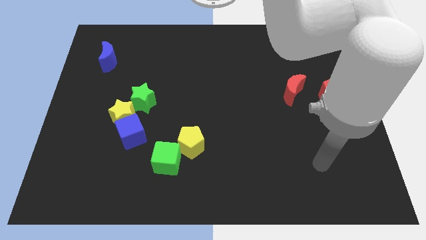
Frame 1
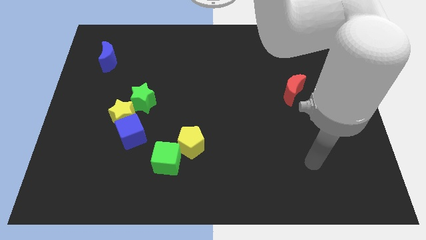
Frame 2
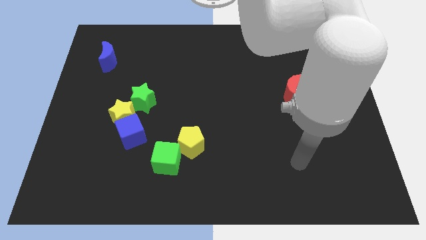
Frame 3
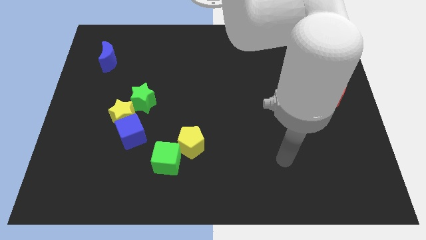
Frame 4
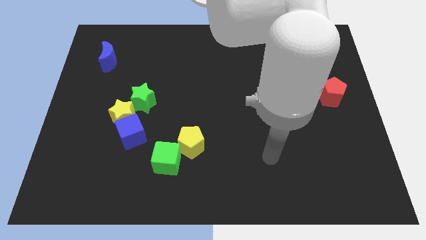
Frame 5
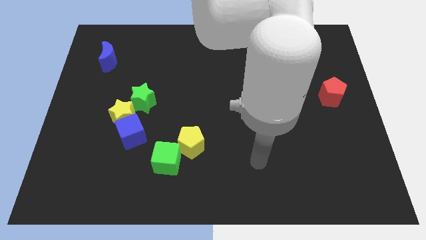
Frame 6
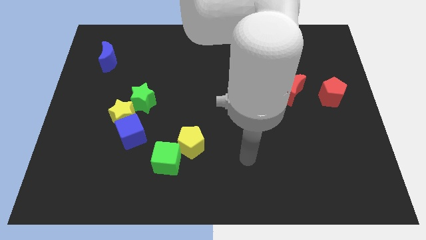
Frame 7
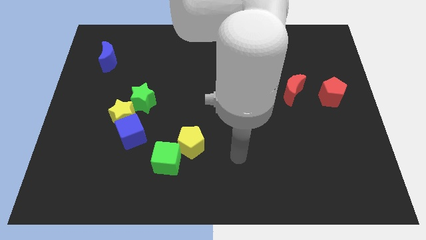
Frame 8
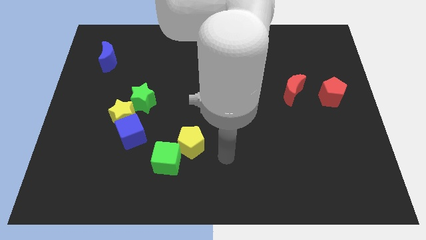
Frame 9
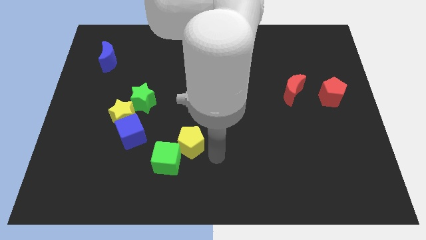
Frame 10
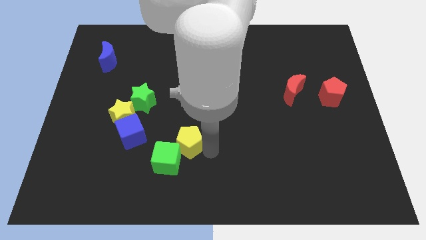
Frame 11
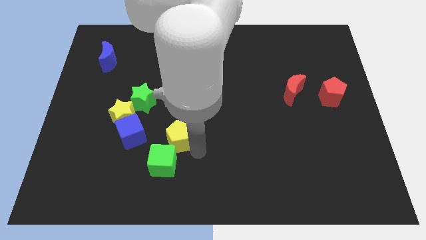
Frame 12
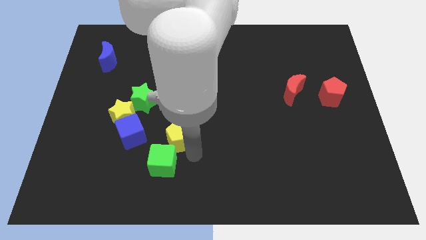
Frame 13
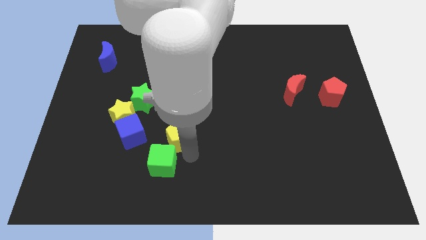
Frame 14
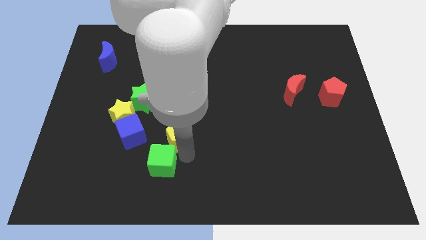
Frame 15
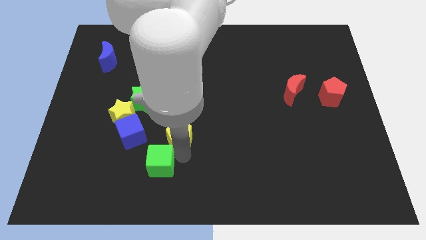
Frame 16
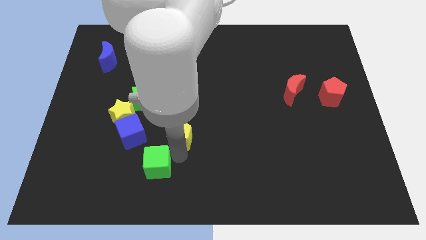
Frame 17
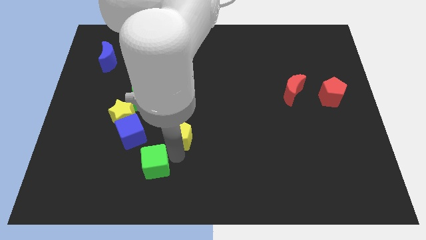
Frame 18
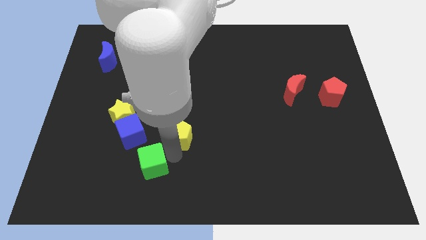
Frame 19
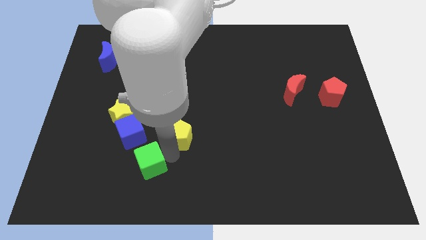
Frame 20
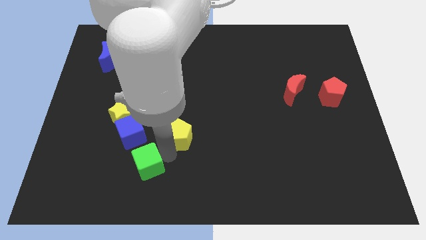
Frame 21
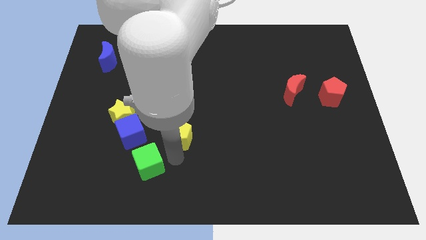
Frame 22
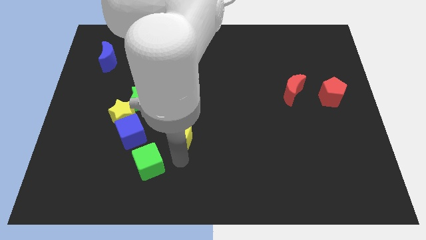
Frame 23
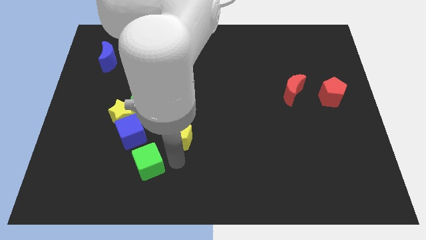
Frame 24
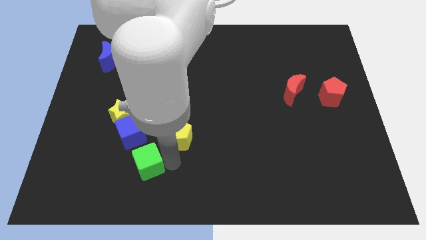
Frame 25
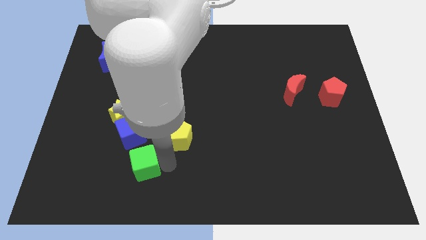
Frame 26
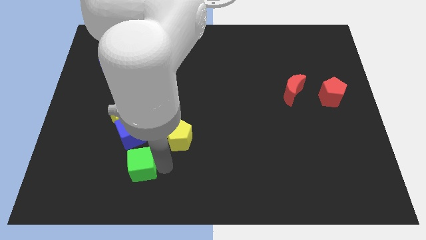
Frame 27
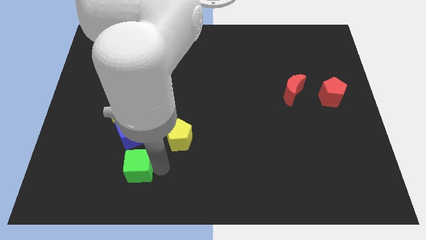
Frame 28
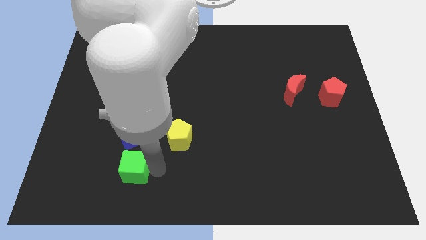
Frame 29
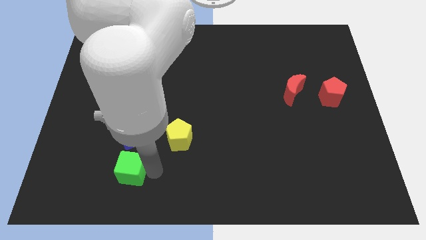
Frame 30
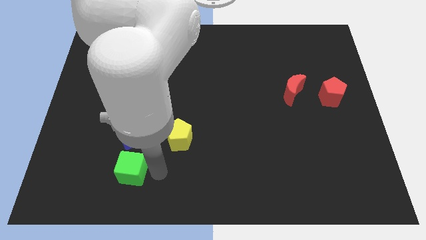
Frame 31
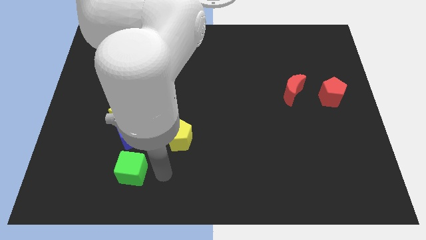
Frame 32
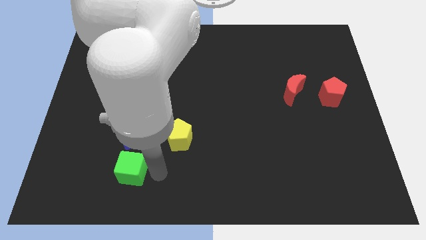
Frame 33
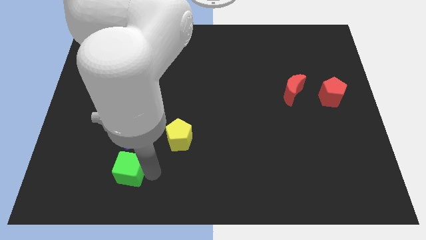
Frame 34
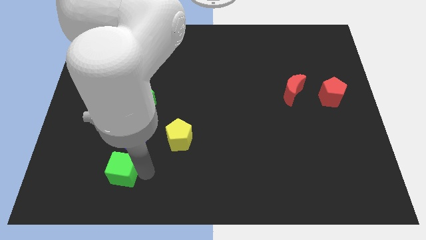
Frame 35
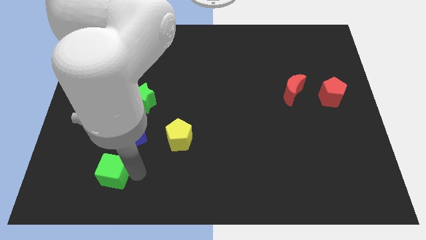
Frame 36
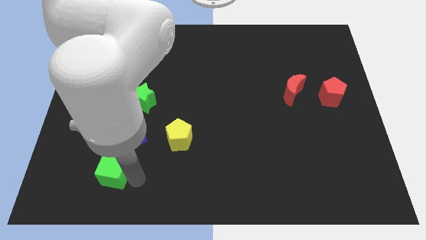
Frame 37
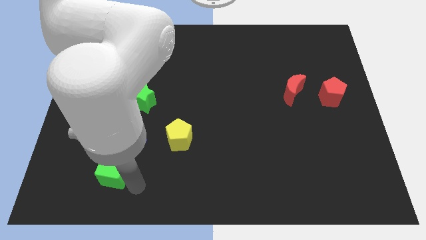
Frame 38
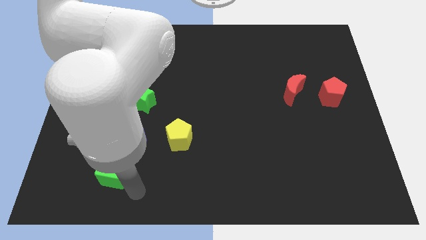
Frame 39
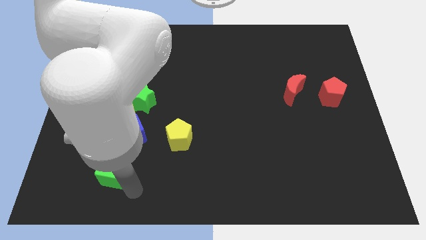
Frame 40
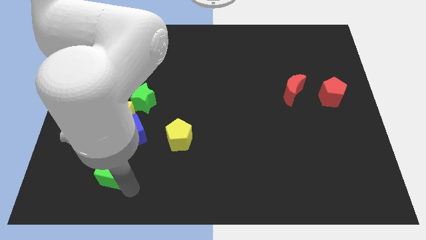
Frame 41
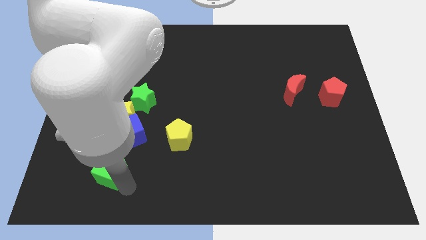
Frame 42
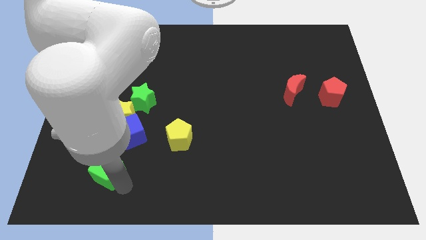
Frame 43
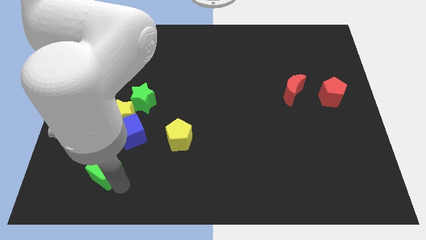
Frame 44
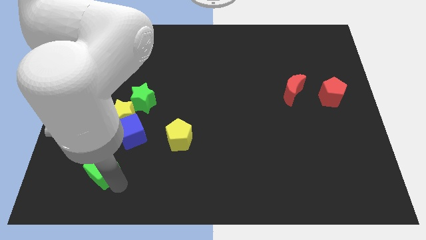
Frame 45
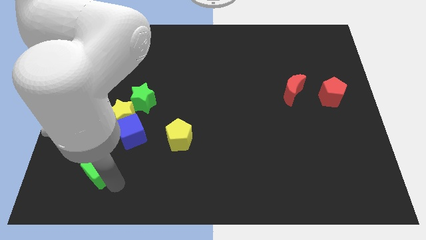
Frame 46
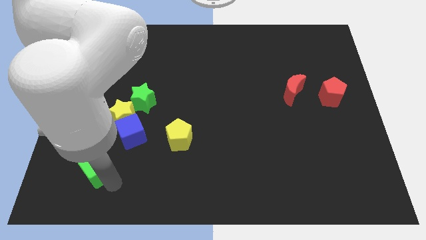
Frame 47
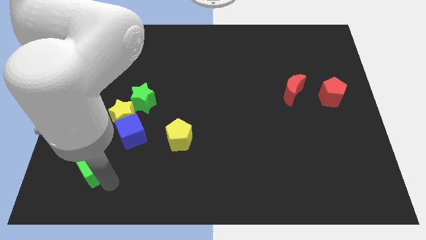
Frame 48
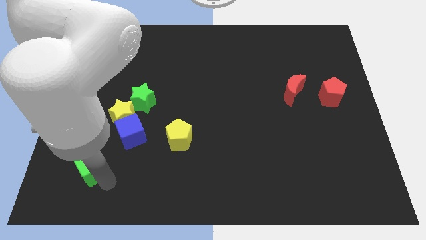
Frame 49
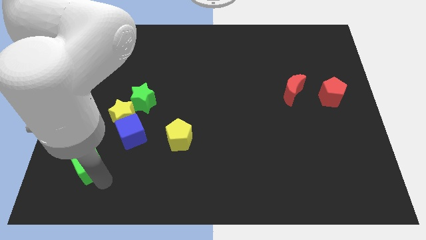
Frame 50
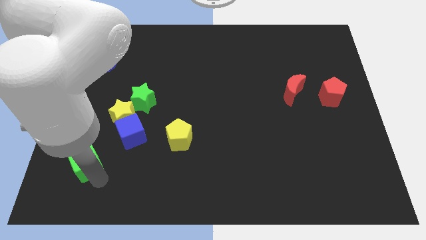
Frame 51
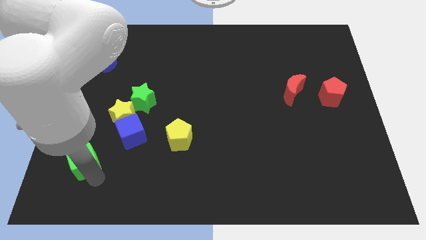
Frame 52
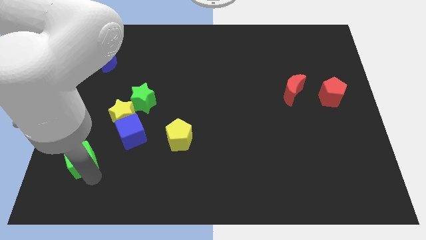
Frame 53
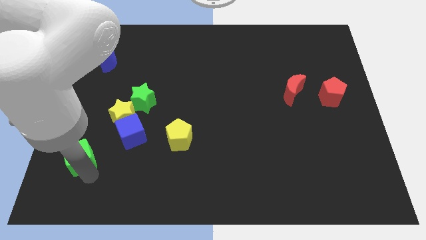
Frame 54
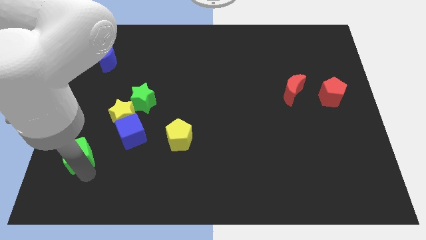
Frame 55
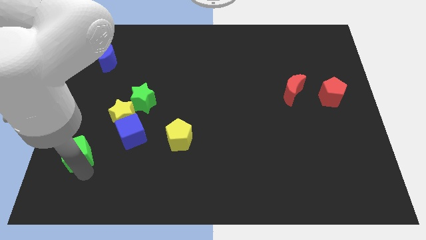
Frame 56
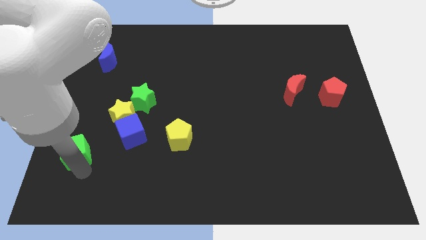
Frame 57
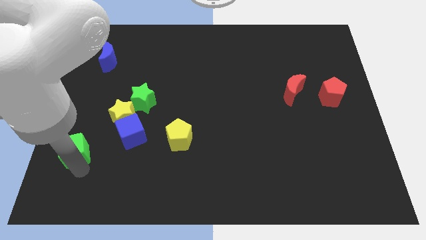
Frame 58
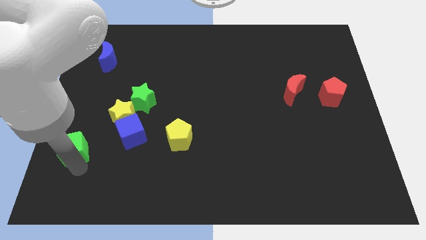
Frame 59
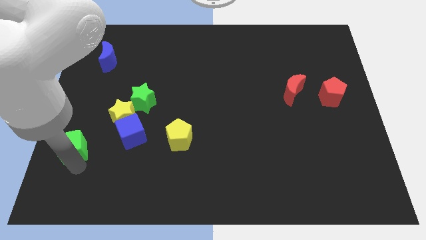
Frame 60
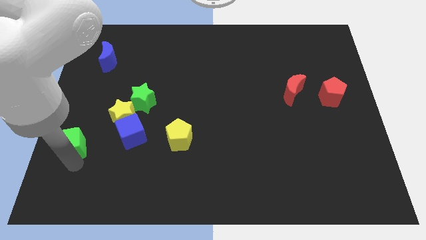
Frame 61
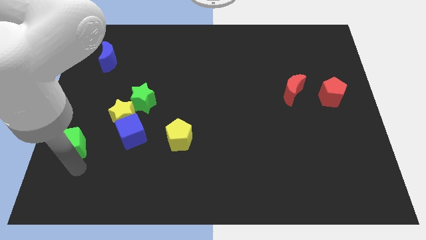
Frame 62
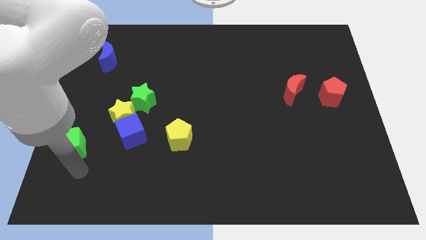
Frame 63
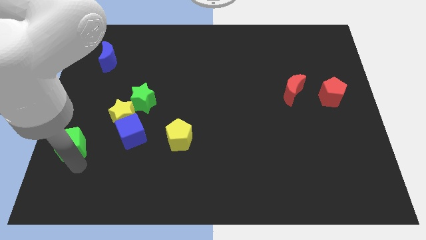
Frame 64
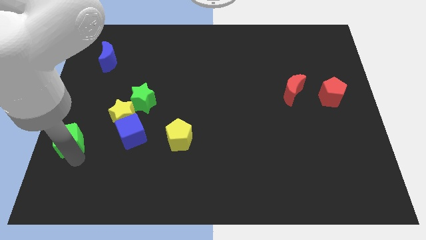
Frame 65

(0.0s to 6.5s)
slide the green cube to the left side

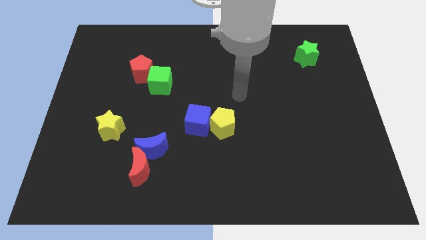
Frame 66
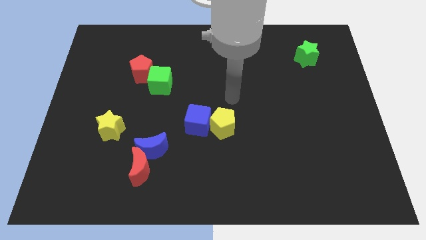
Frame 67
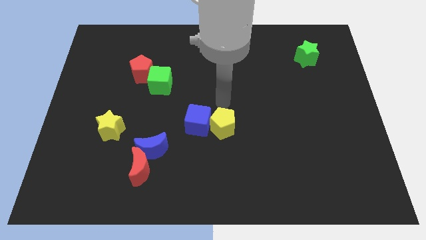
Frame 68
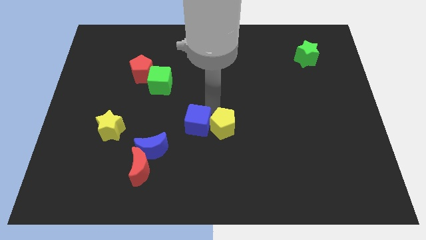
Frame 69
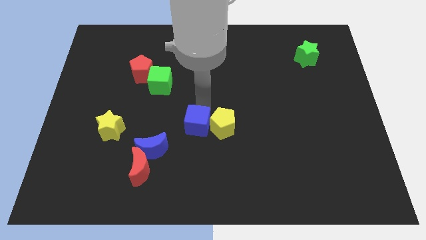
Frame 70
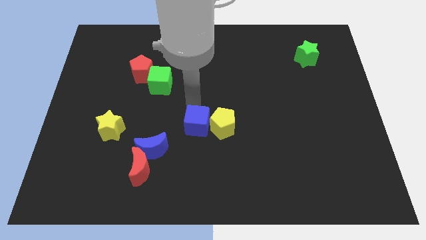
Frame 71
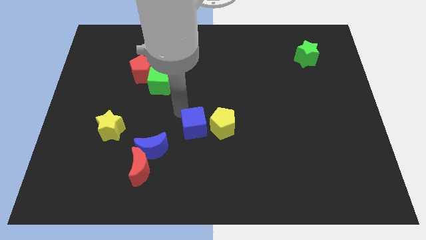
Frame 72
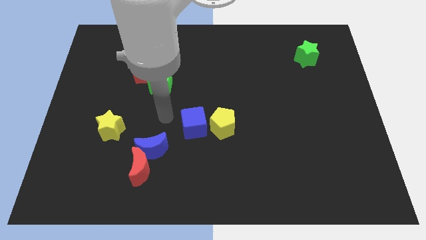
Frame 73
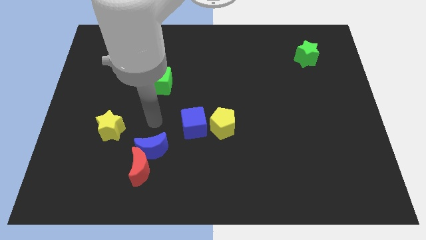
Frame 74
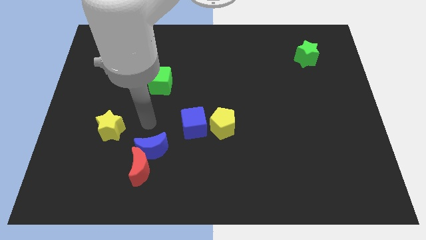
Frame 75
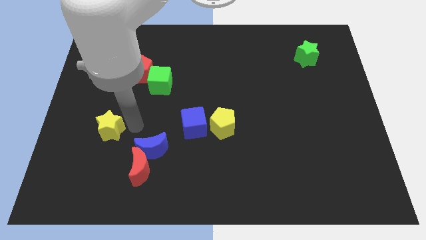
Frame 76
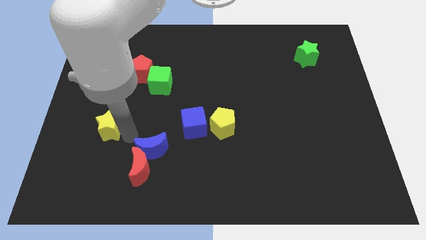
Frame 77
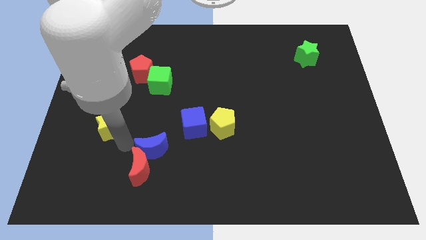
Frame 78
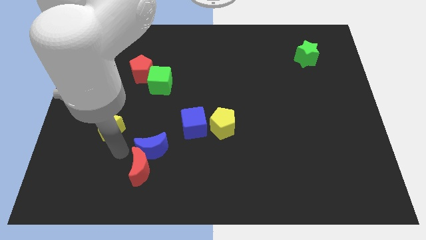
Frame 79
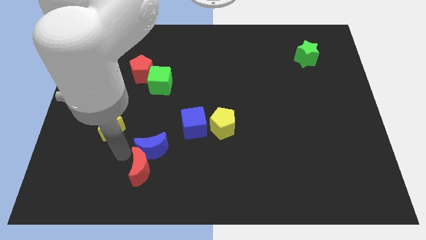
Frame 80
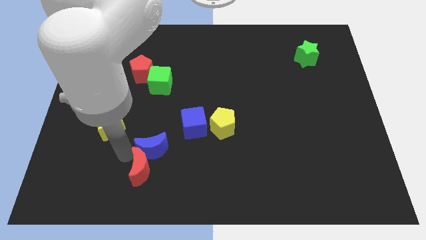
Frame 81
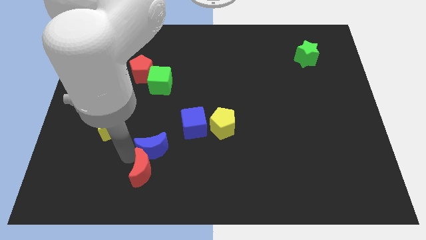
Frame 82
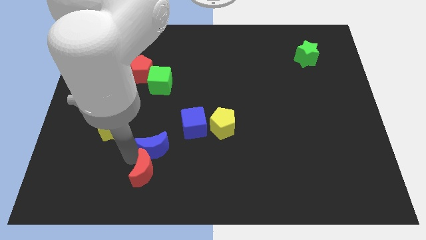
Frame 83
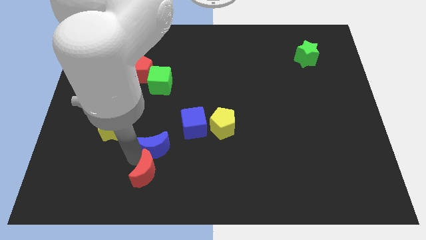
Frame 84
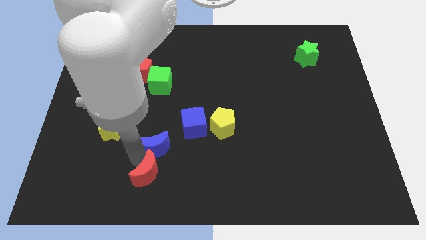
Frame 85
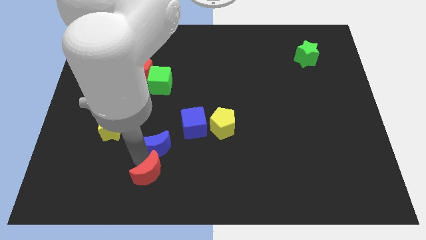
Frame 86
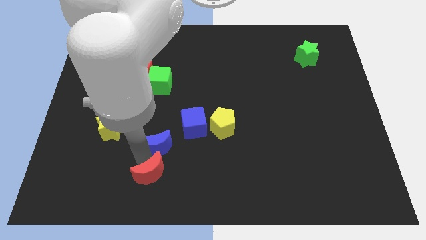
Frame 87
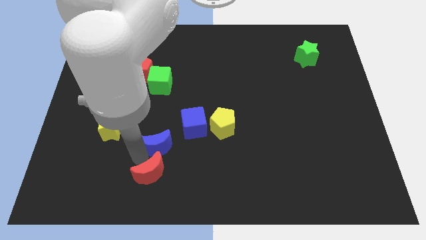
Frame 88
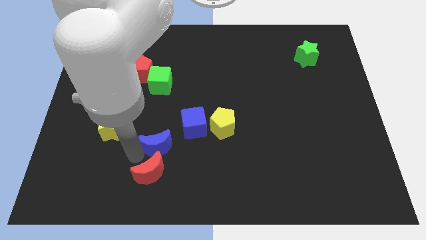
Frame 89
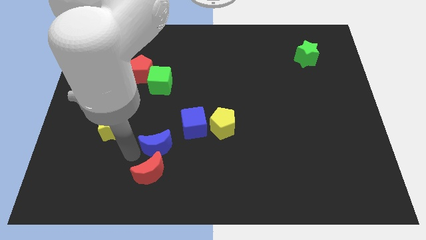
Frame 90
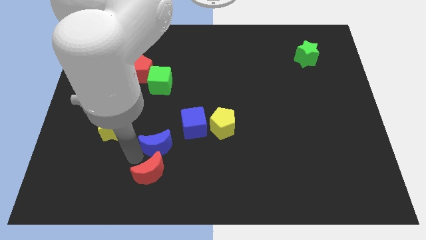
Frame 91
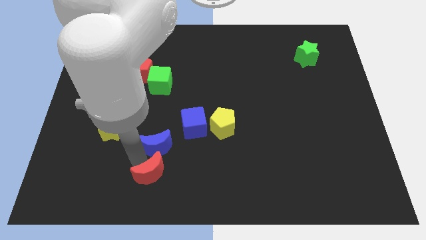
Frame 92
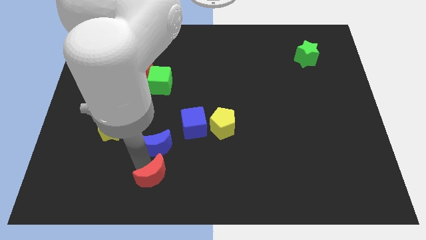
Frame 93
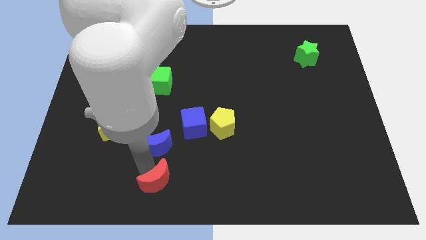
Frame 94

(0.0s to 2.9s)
slide the red moon to the bottom
